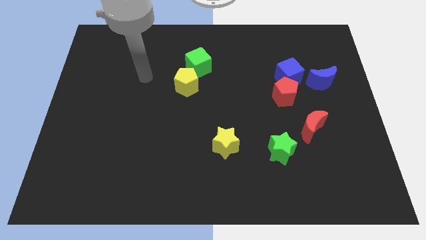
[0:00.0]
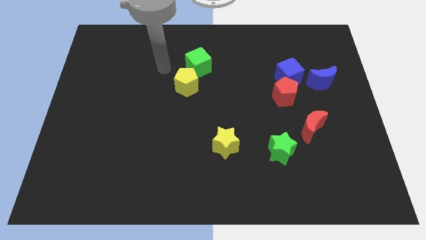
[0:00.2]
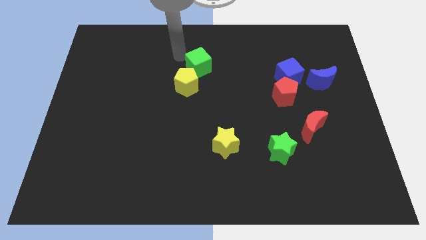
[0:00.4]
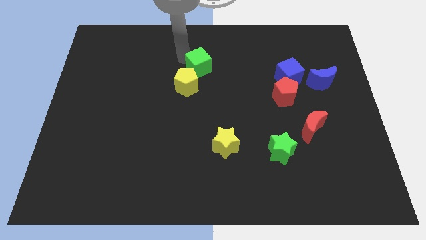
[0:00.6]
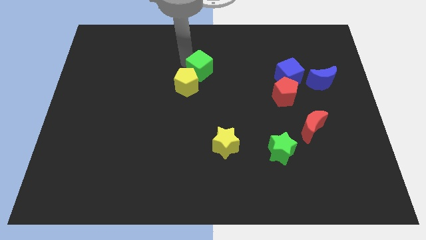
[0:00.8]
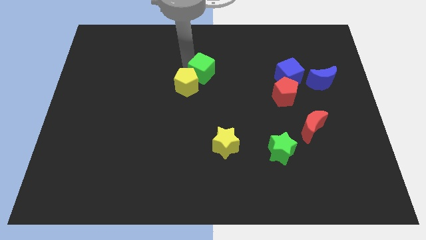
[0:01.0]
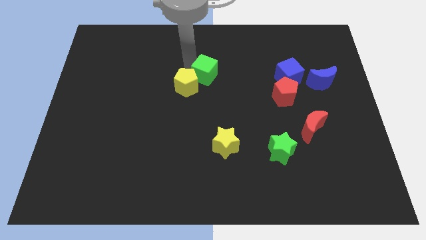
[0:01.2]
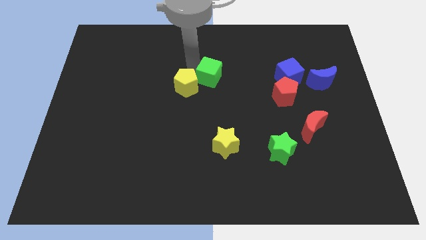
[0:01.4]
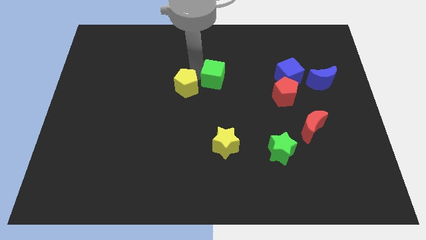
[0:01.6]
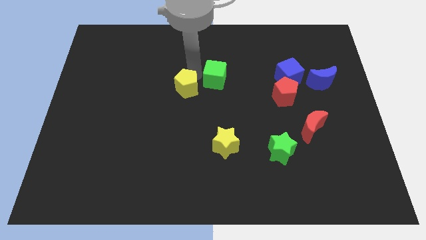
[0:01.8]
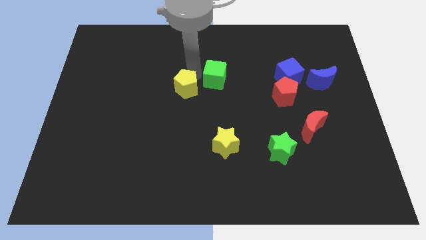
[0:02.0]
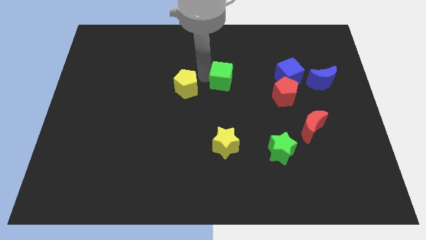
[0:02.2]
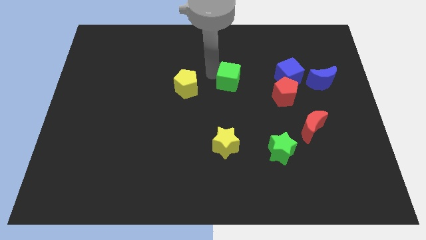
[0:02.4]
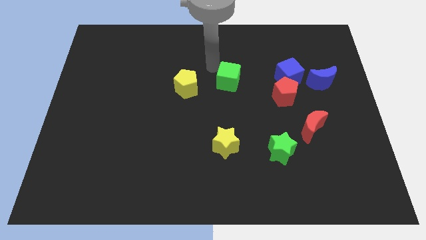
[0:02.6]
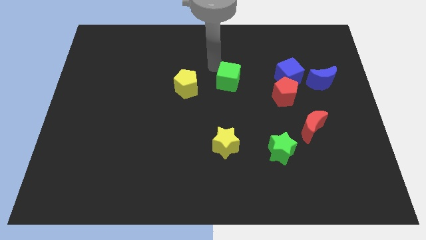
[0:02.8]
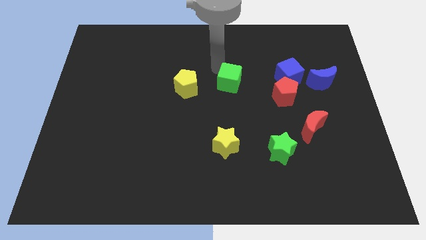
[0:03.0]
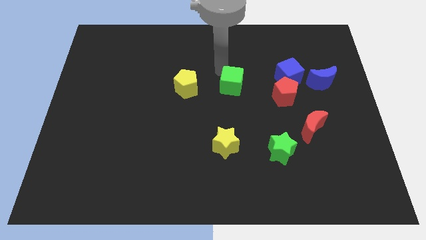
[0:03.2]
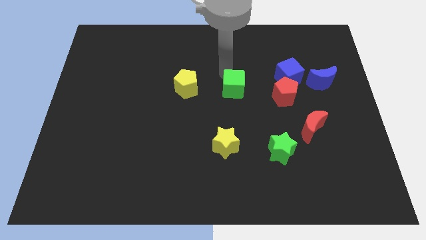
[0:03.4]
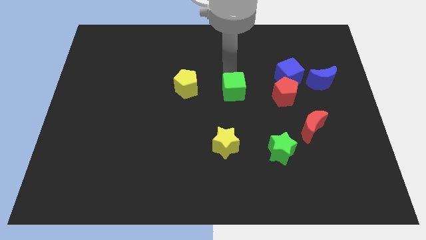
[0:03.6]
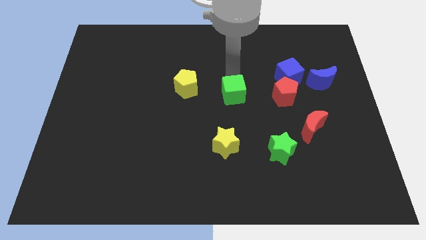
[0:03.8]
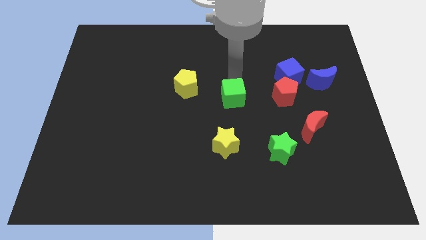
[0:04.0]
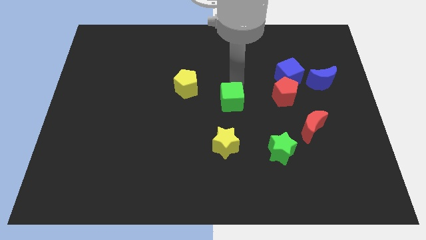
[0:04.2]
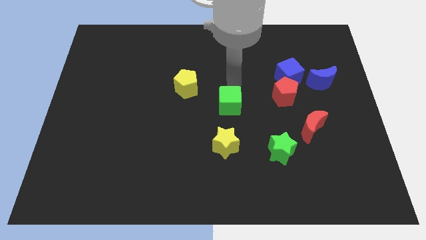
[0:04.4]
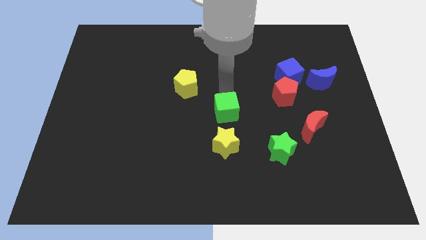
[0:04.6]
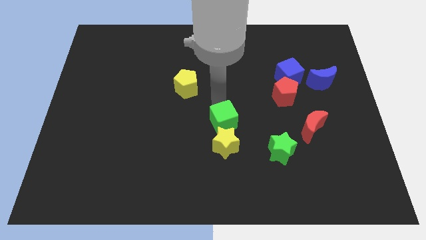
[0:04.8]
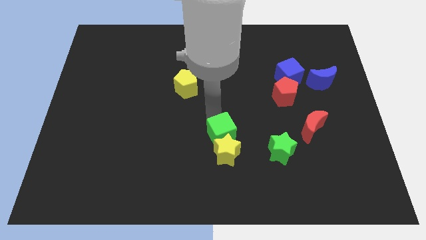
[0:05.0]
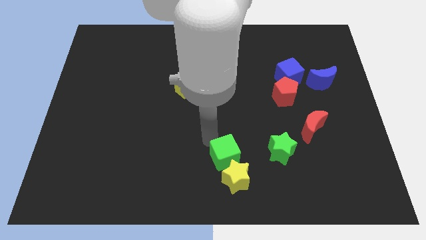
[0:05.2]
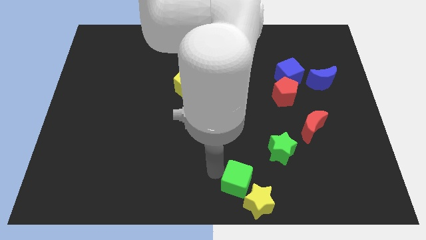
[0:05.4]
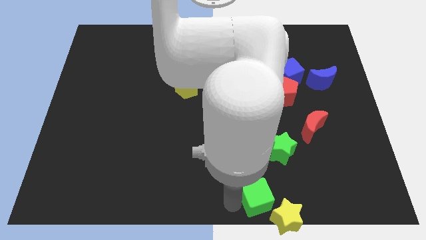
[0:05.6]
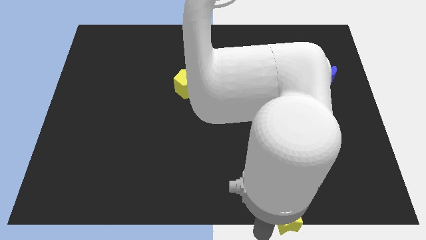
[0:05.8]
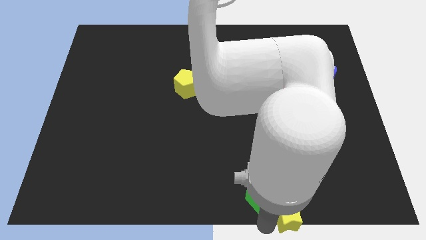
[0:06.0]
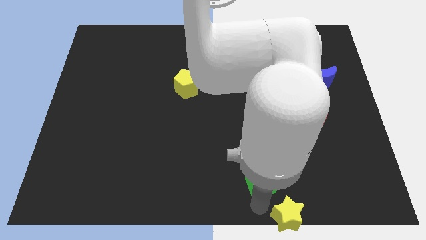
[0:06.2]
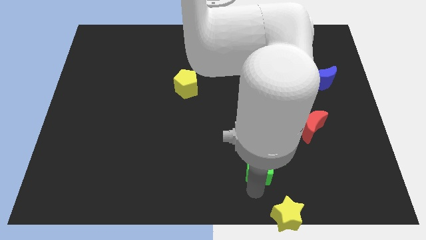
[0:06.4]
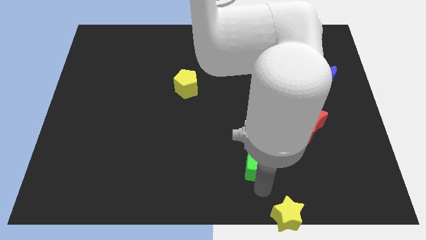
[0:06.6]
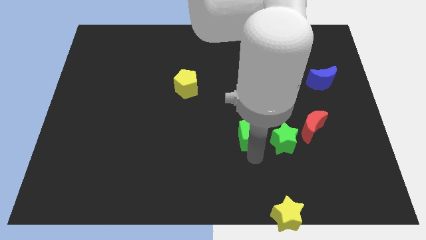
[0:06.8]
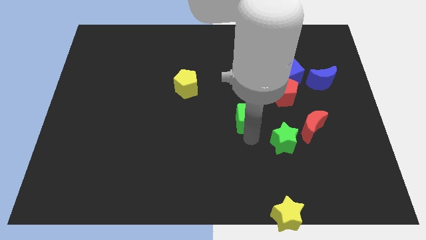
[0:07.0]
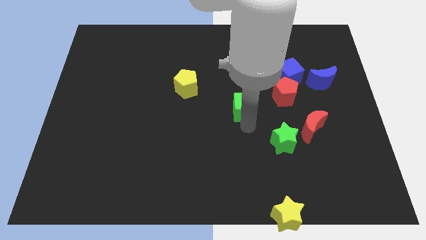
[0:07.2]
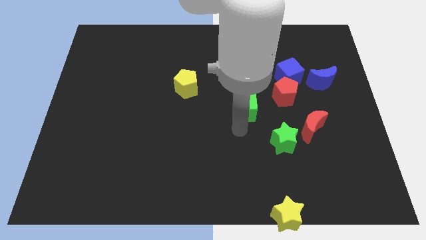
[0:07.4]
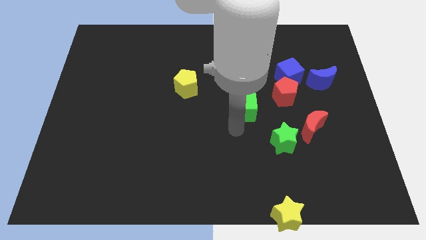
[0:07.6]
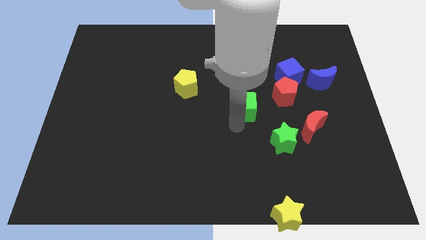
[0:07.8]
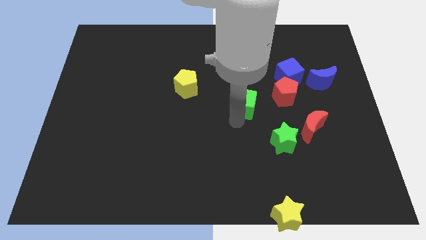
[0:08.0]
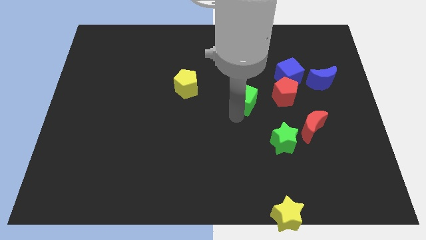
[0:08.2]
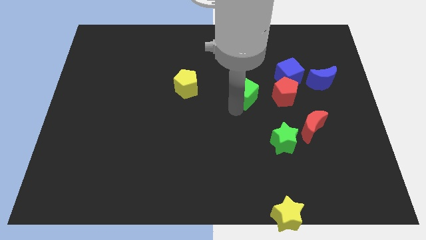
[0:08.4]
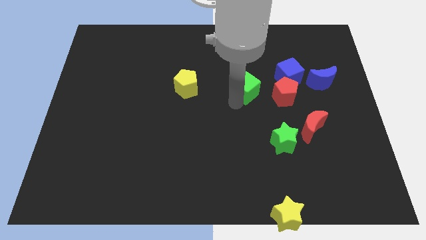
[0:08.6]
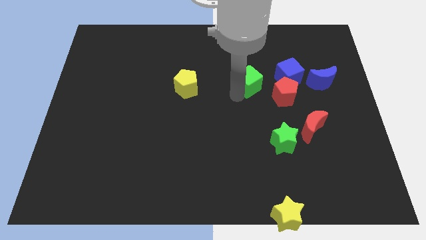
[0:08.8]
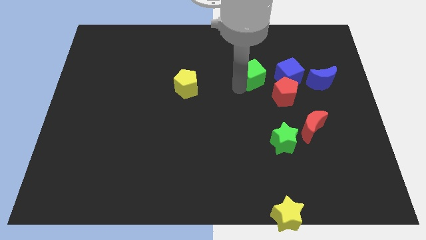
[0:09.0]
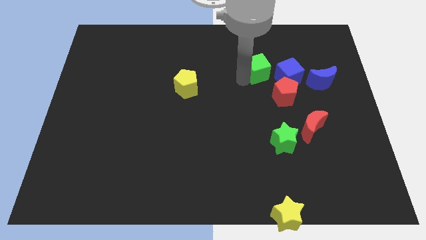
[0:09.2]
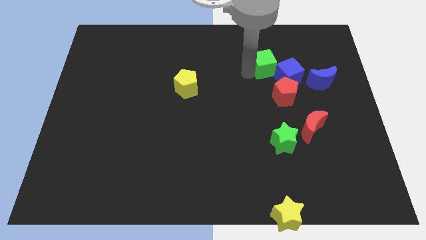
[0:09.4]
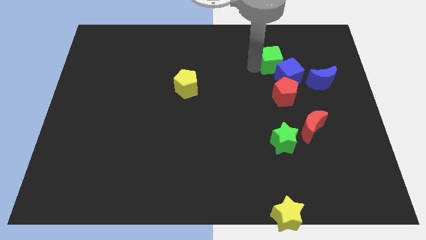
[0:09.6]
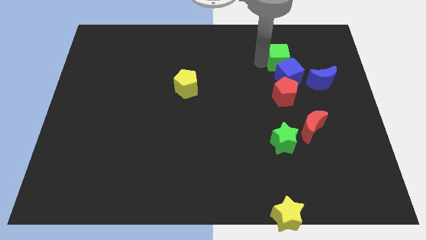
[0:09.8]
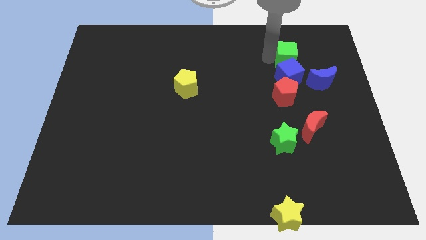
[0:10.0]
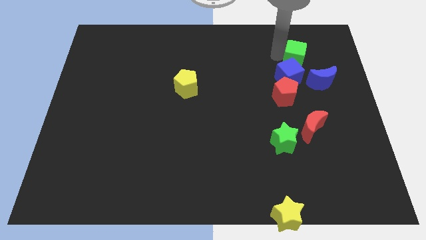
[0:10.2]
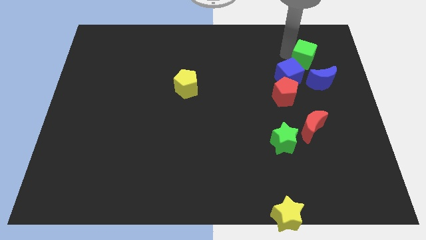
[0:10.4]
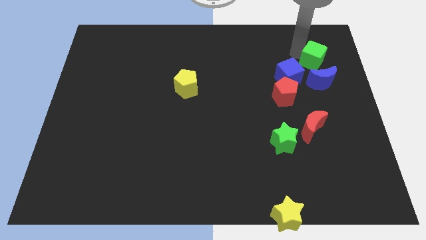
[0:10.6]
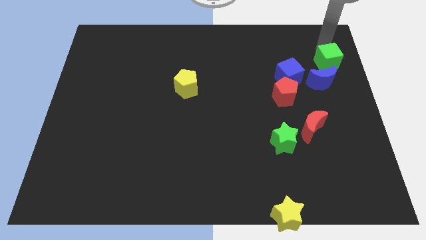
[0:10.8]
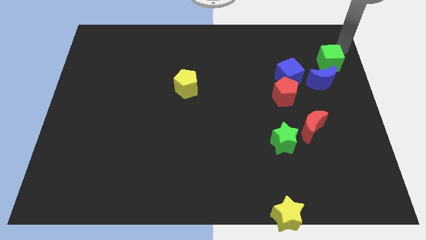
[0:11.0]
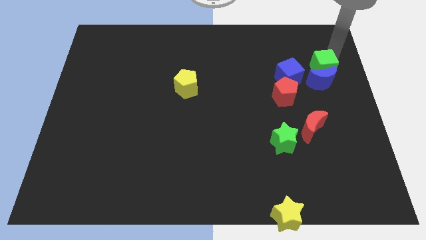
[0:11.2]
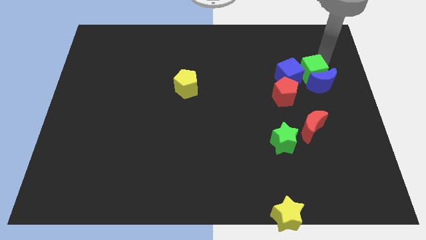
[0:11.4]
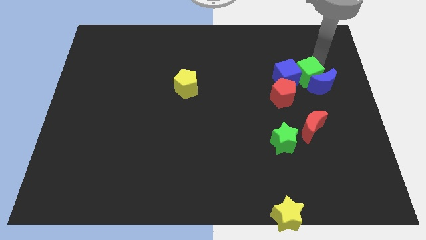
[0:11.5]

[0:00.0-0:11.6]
put the green cube to the bottom right side of the blue cube

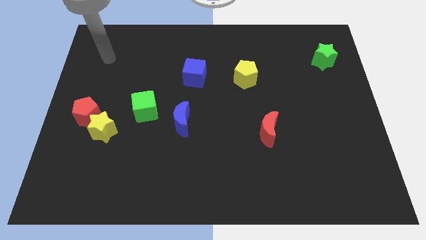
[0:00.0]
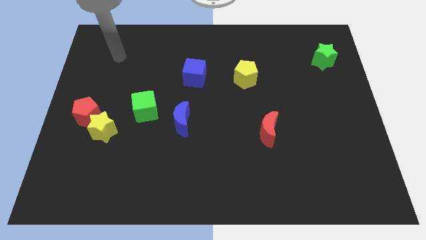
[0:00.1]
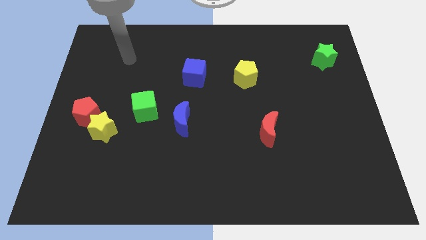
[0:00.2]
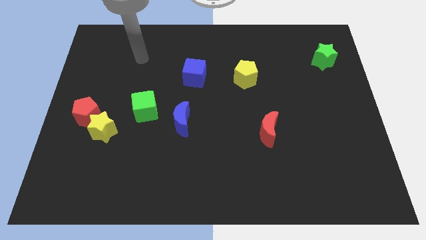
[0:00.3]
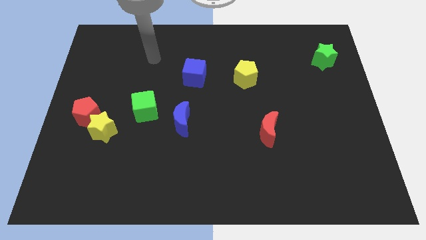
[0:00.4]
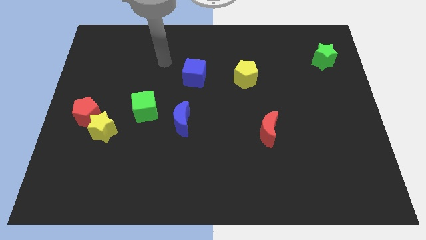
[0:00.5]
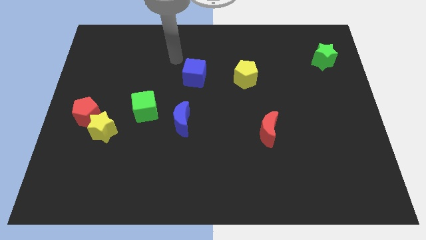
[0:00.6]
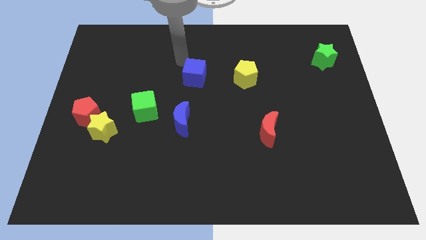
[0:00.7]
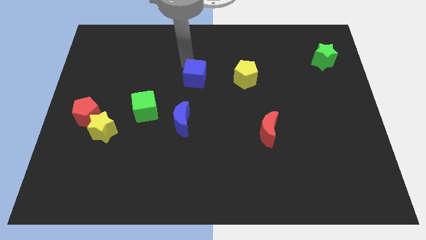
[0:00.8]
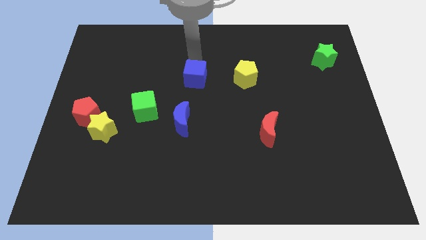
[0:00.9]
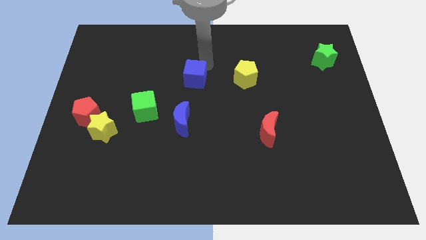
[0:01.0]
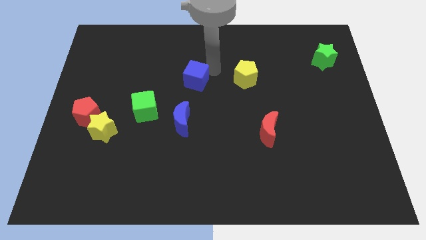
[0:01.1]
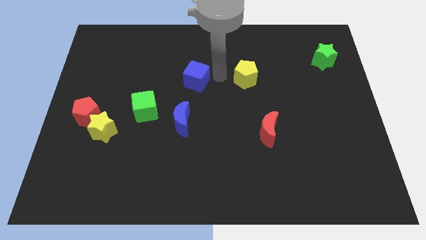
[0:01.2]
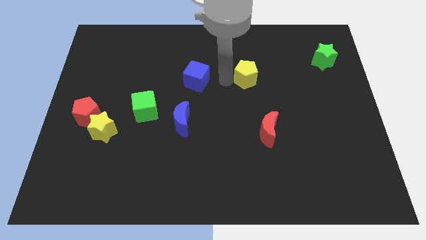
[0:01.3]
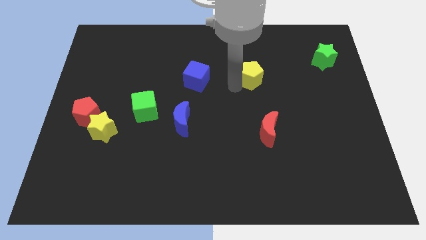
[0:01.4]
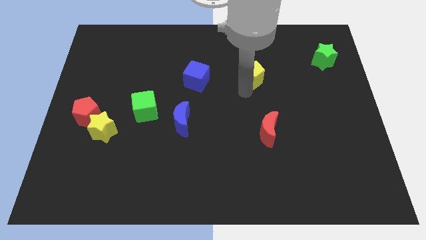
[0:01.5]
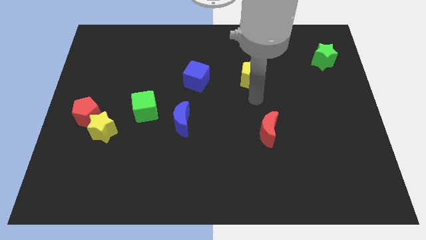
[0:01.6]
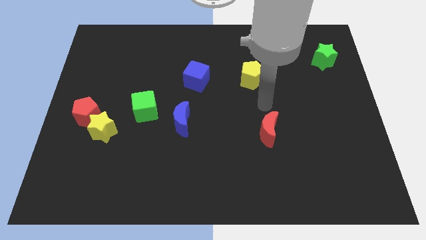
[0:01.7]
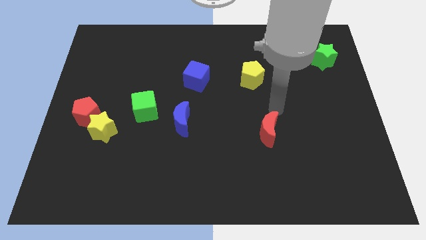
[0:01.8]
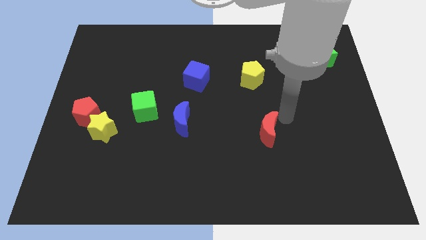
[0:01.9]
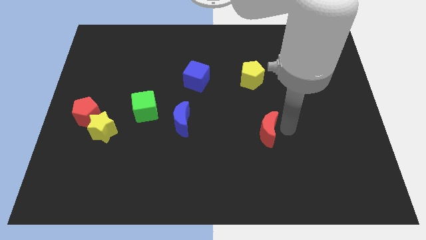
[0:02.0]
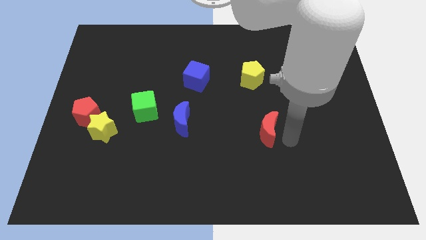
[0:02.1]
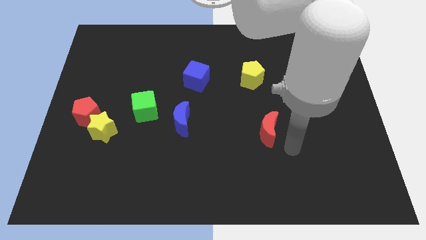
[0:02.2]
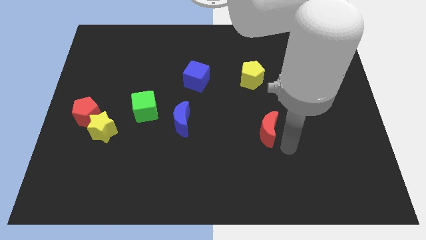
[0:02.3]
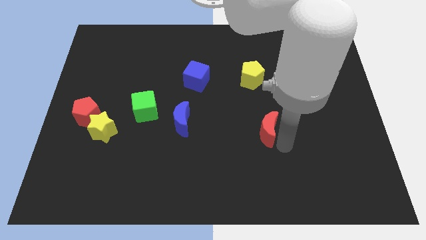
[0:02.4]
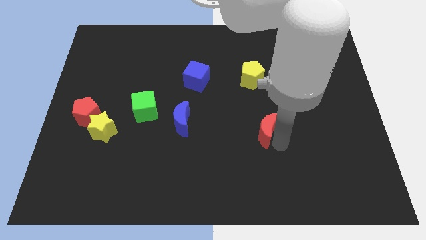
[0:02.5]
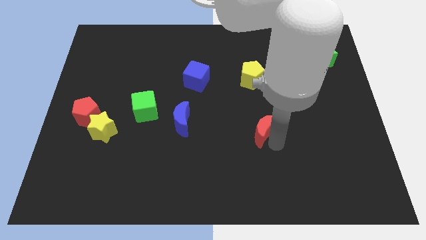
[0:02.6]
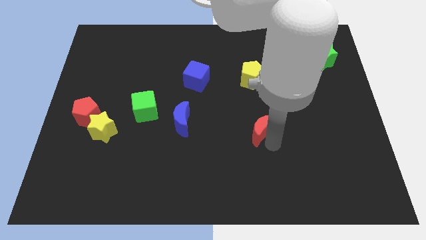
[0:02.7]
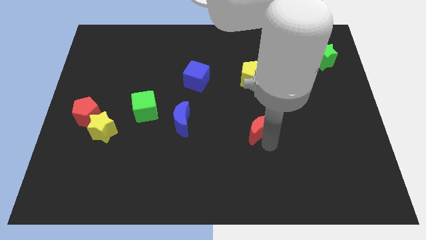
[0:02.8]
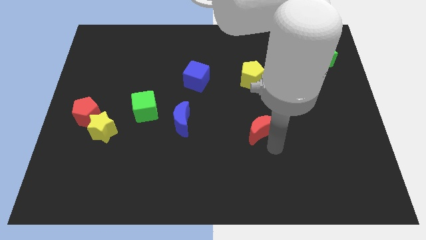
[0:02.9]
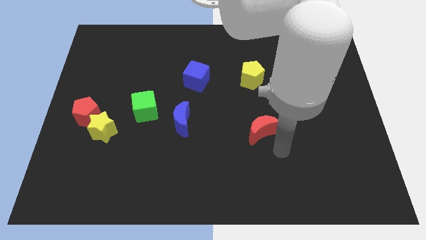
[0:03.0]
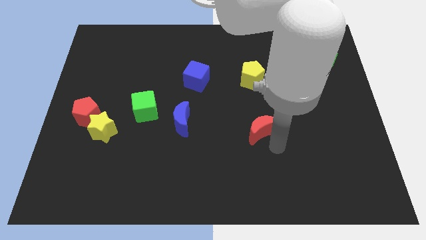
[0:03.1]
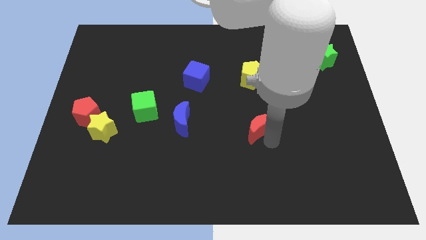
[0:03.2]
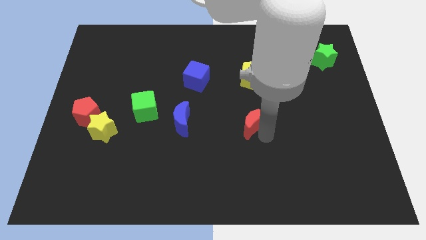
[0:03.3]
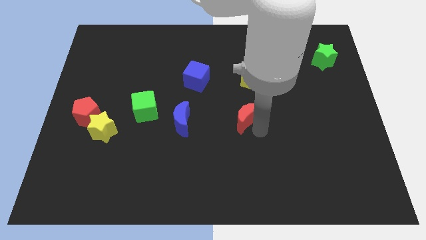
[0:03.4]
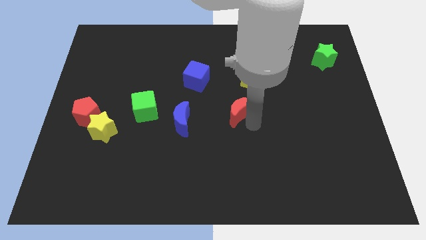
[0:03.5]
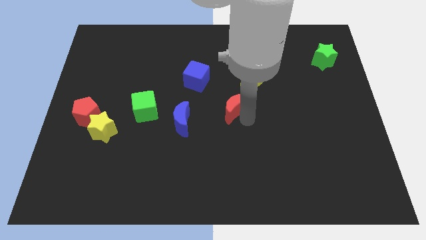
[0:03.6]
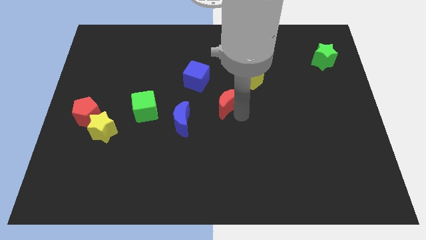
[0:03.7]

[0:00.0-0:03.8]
move the red moon diagonally down and to the right of the blue cube
